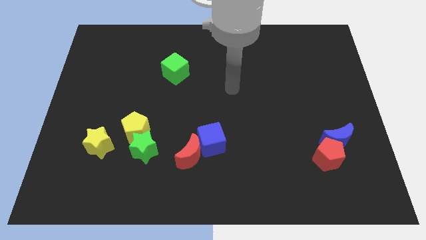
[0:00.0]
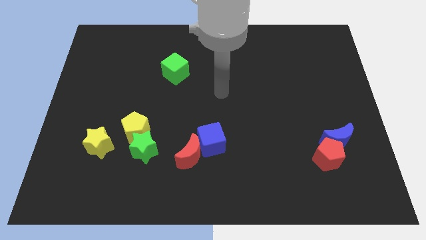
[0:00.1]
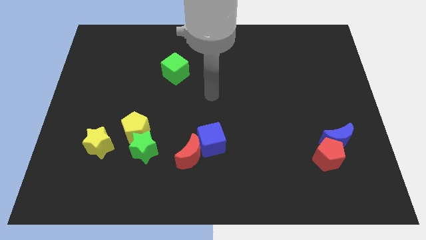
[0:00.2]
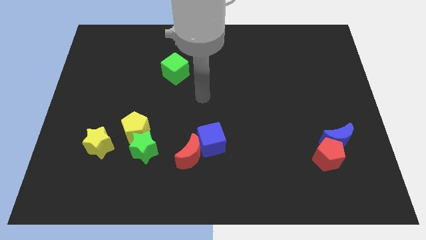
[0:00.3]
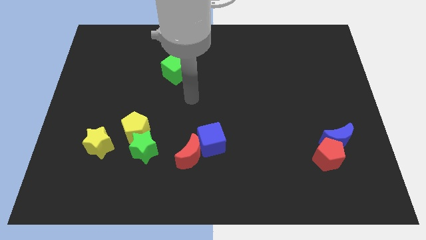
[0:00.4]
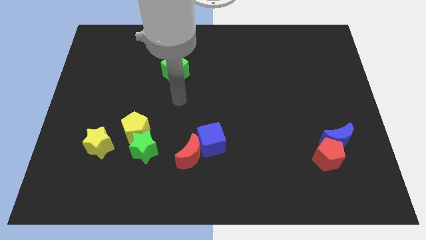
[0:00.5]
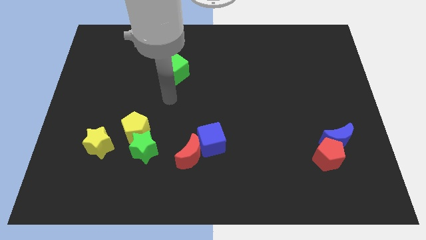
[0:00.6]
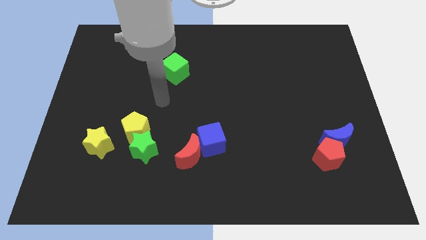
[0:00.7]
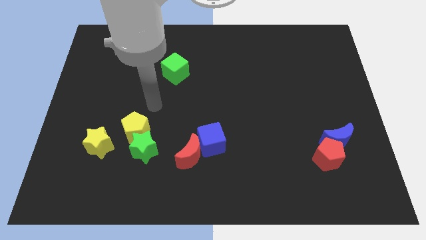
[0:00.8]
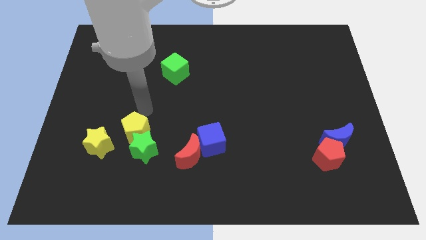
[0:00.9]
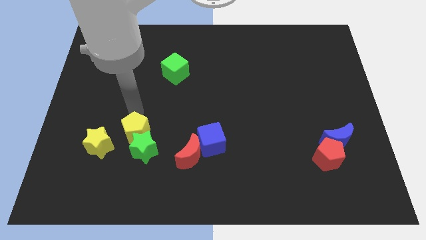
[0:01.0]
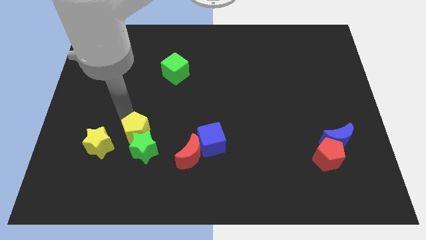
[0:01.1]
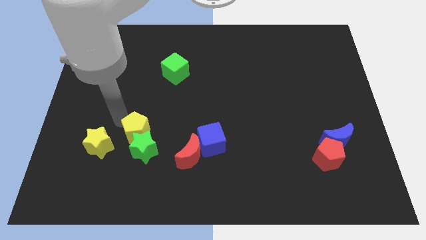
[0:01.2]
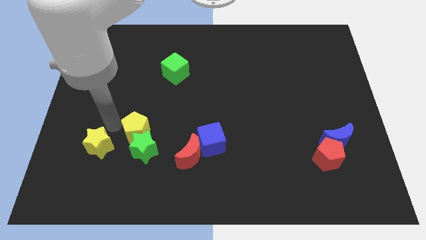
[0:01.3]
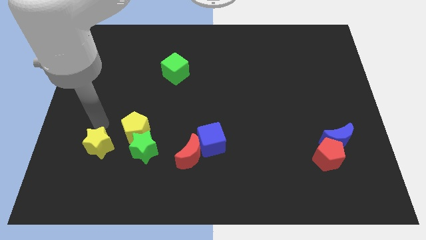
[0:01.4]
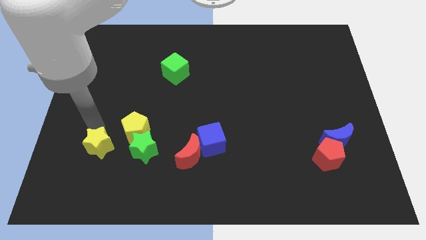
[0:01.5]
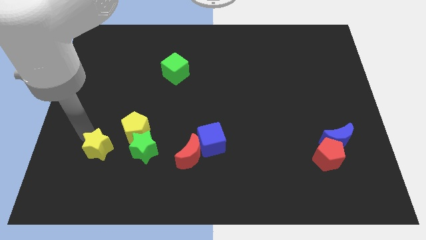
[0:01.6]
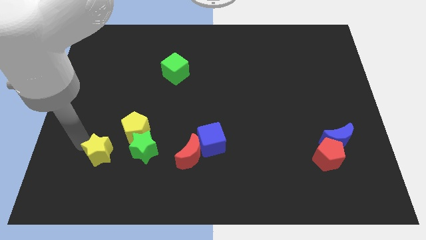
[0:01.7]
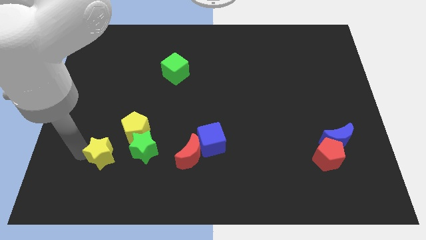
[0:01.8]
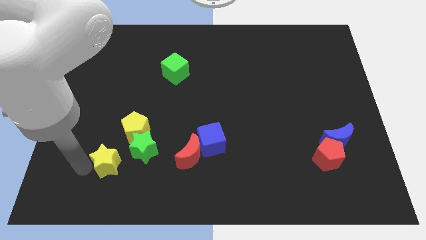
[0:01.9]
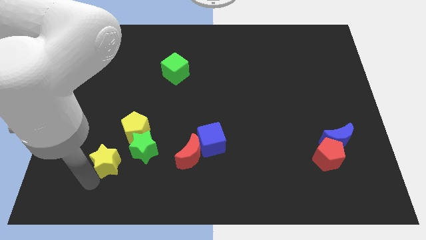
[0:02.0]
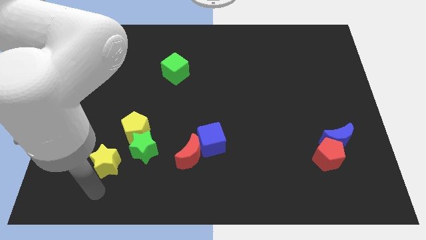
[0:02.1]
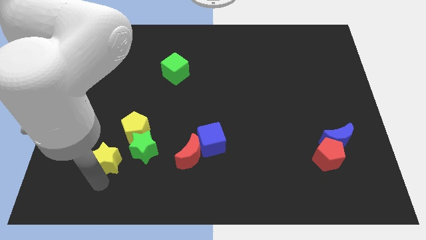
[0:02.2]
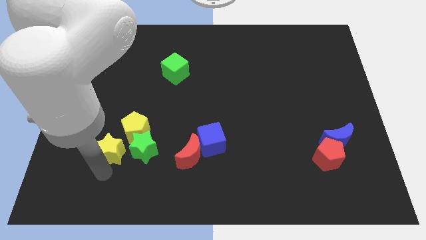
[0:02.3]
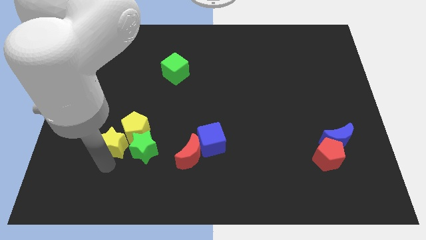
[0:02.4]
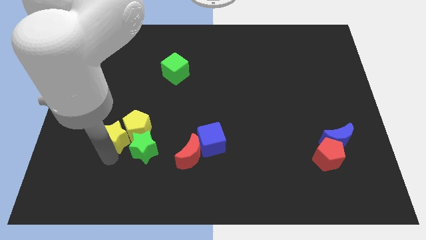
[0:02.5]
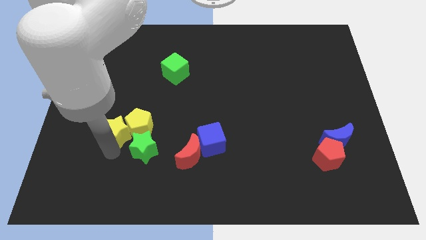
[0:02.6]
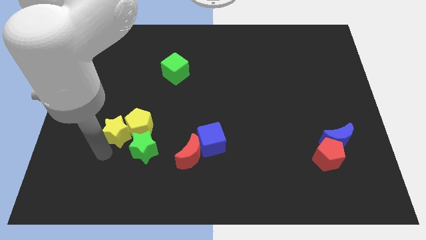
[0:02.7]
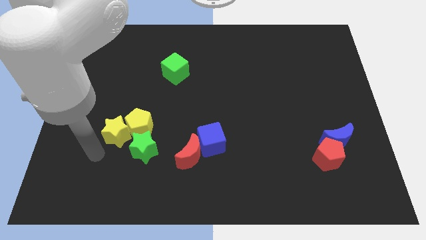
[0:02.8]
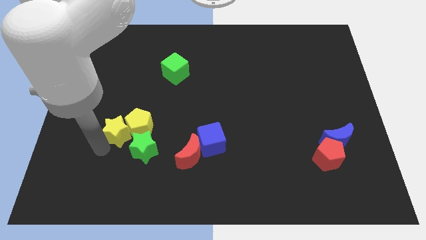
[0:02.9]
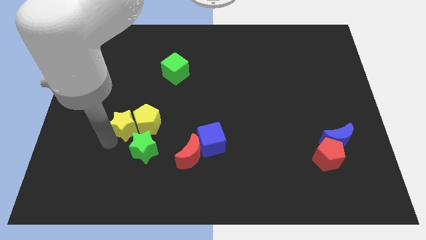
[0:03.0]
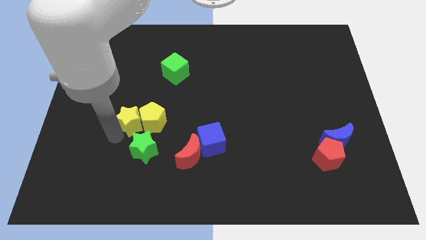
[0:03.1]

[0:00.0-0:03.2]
slightly push the yellow star diagonally up and right

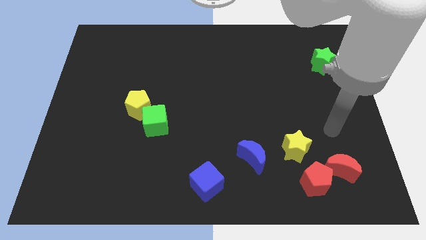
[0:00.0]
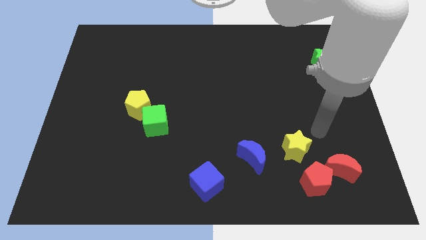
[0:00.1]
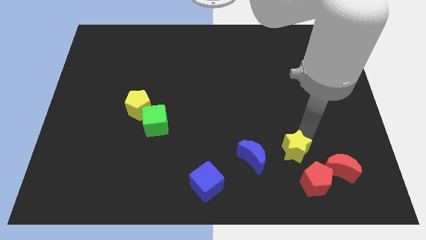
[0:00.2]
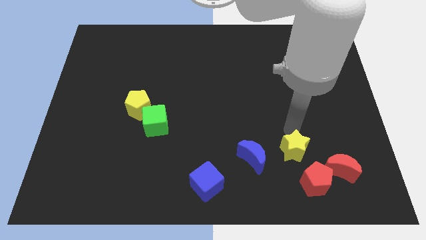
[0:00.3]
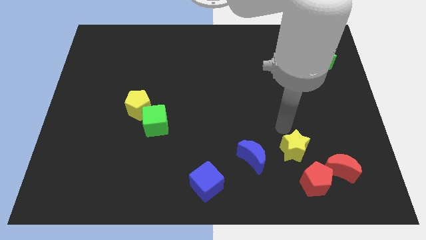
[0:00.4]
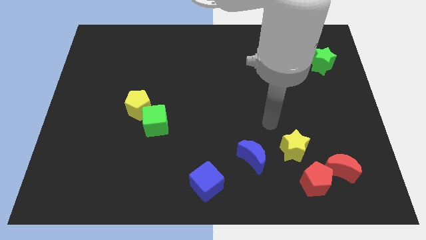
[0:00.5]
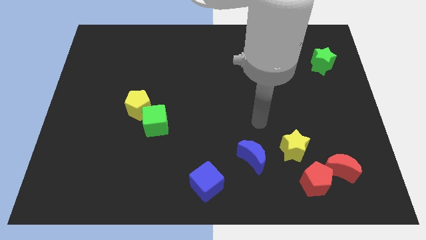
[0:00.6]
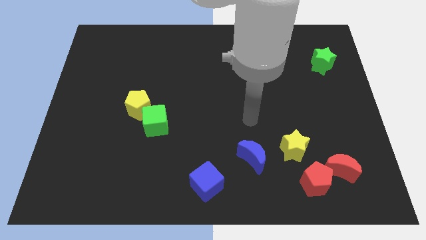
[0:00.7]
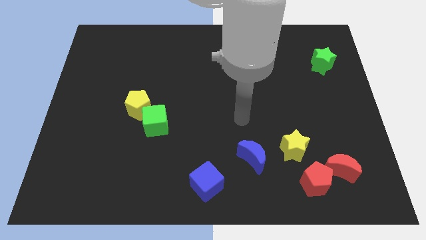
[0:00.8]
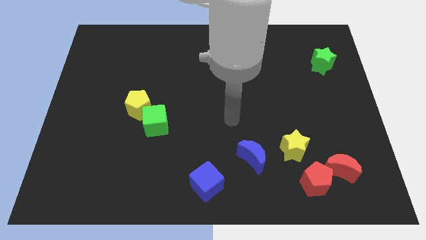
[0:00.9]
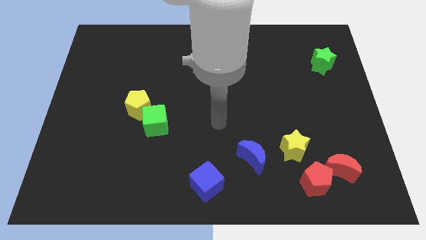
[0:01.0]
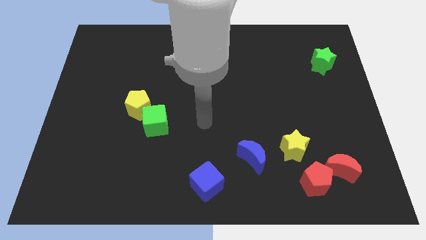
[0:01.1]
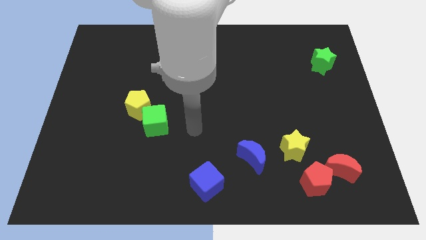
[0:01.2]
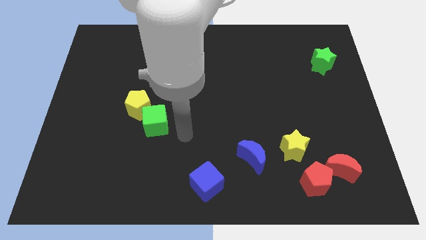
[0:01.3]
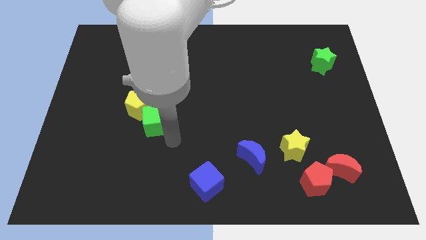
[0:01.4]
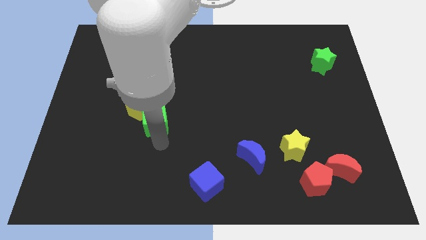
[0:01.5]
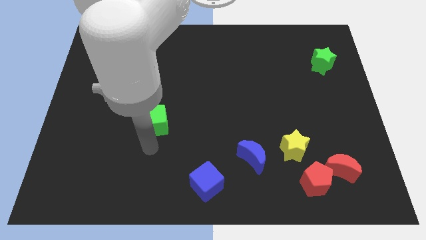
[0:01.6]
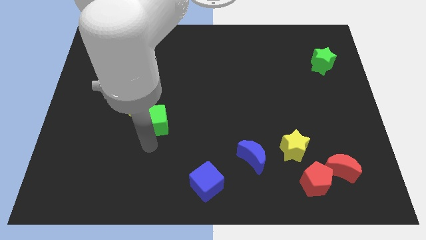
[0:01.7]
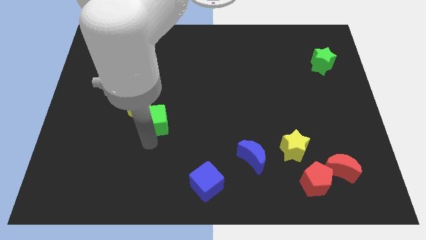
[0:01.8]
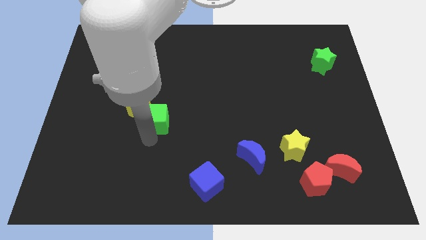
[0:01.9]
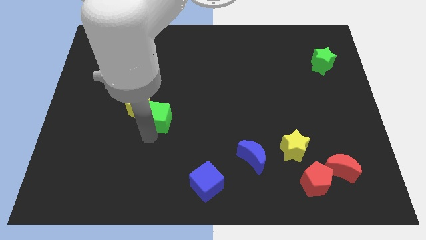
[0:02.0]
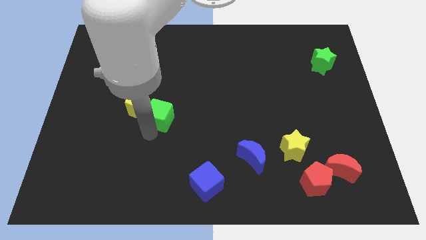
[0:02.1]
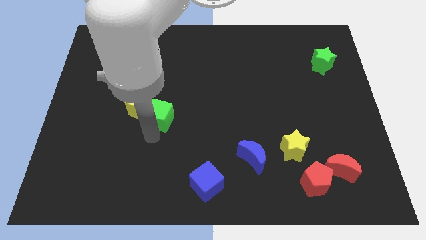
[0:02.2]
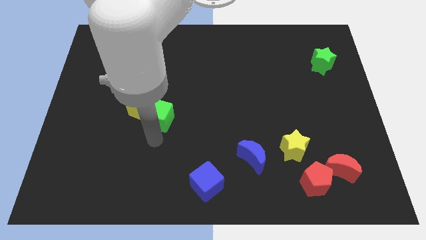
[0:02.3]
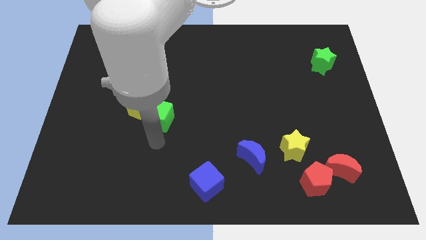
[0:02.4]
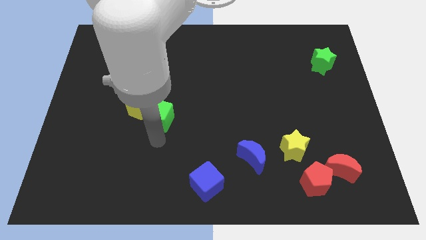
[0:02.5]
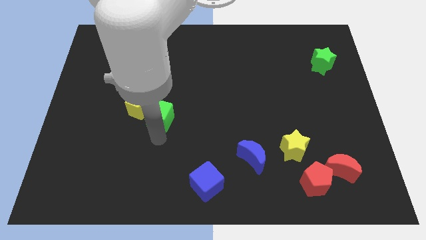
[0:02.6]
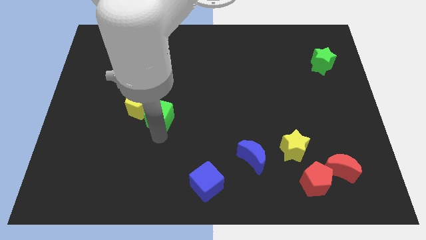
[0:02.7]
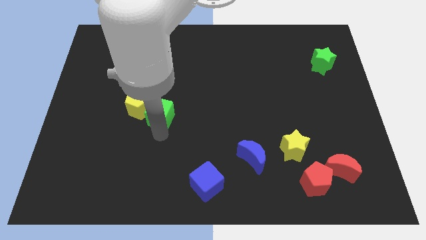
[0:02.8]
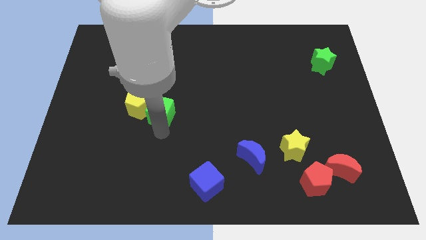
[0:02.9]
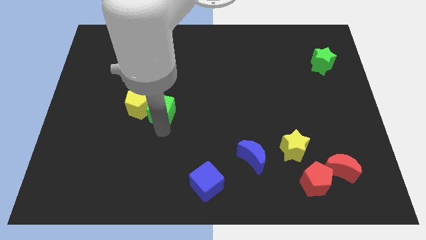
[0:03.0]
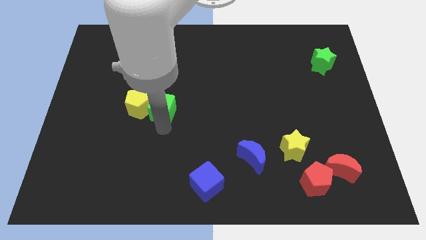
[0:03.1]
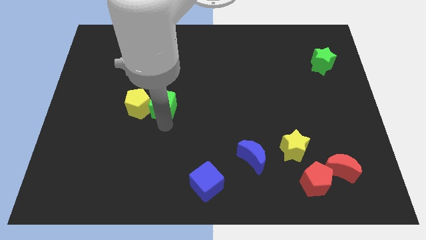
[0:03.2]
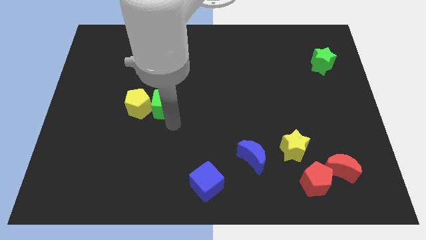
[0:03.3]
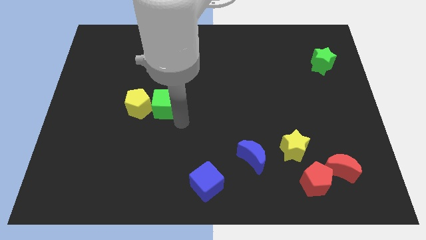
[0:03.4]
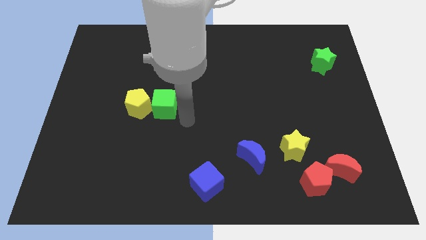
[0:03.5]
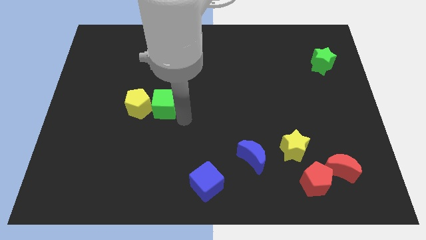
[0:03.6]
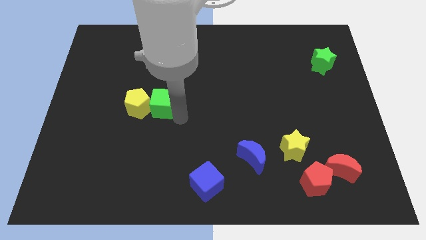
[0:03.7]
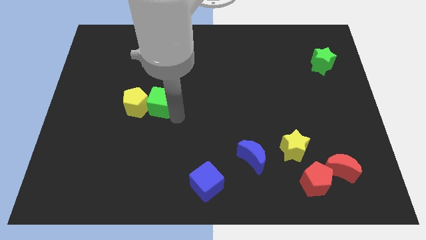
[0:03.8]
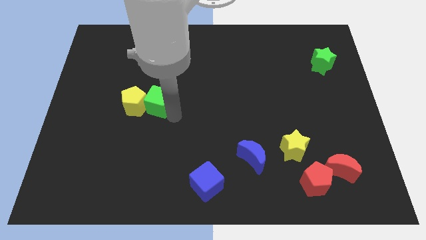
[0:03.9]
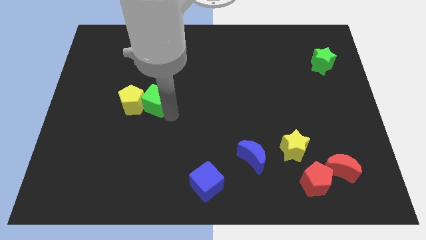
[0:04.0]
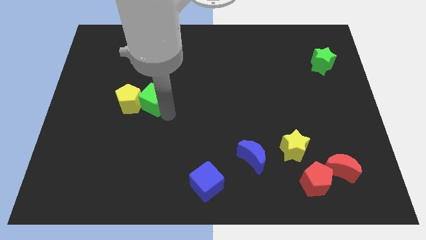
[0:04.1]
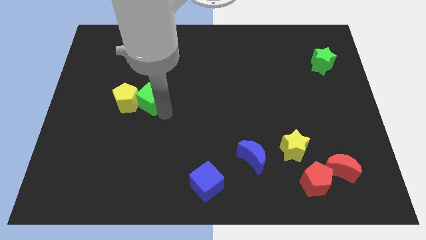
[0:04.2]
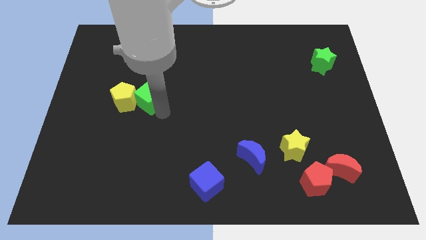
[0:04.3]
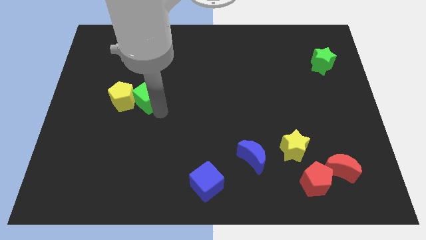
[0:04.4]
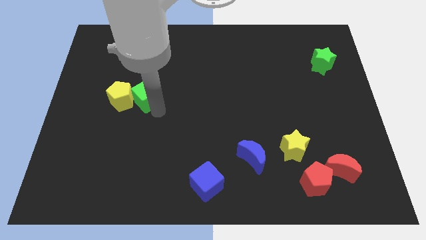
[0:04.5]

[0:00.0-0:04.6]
push the green cube somewhat up and left

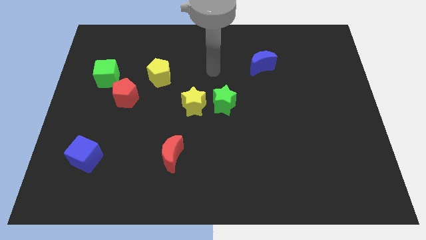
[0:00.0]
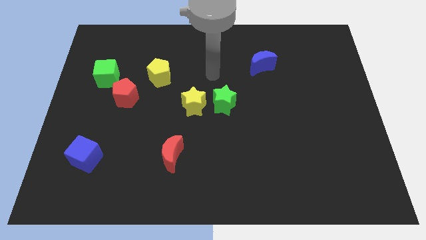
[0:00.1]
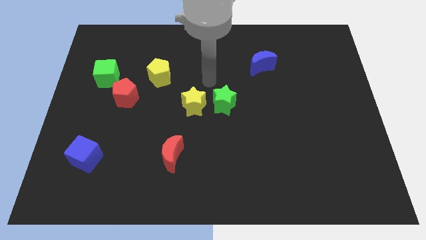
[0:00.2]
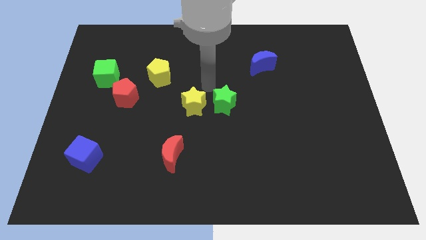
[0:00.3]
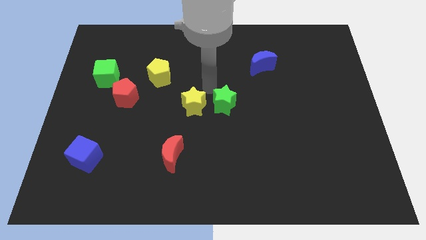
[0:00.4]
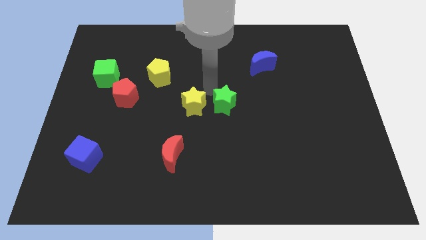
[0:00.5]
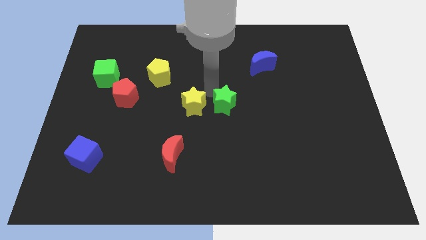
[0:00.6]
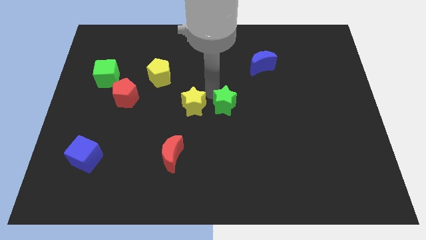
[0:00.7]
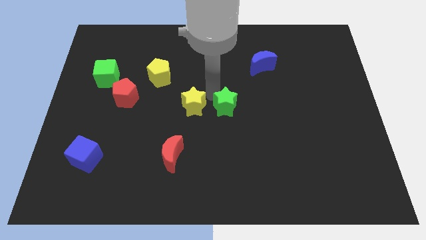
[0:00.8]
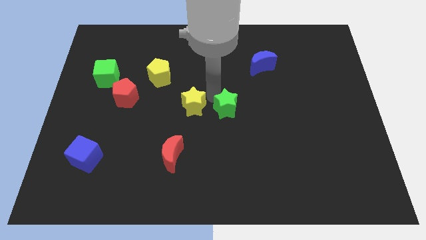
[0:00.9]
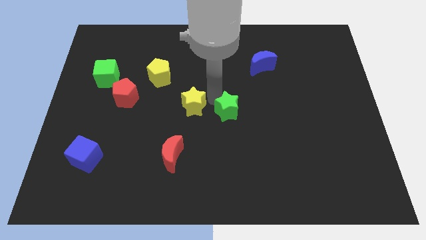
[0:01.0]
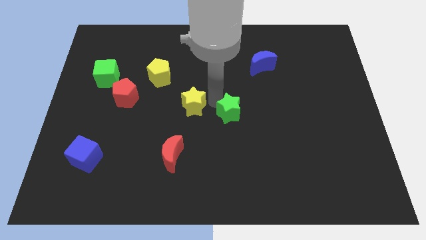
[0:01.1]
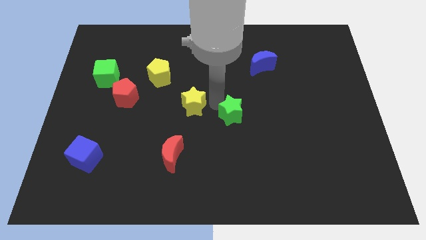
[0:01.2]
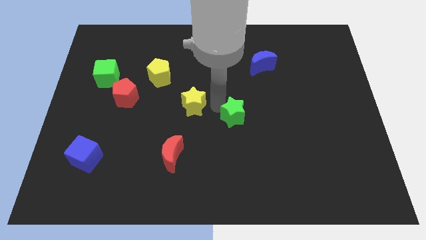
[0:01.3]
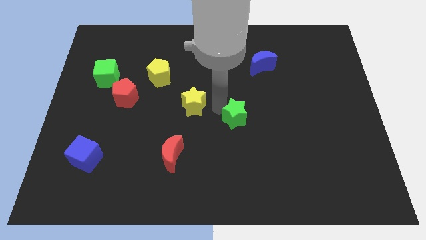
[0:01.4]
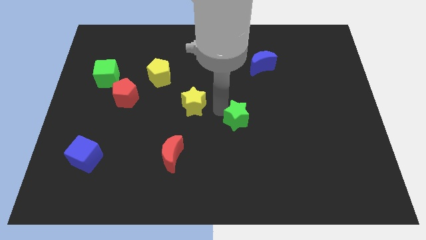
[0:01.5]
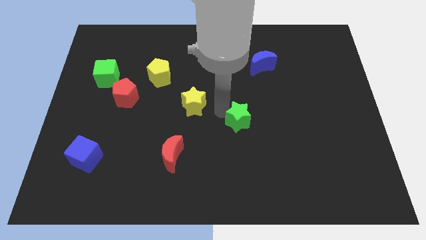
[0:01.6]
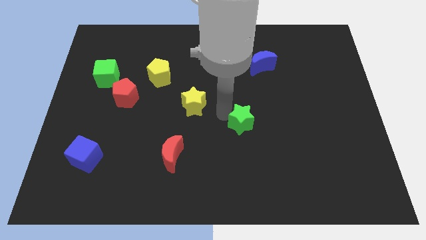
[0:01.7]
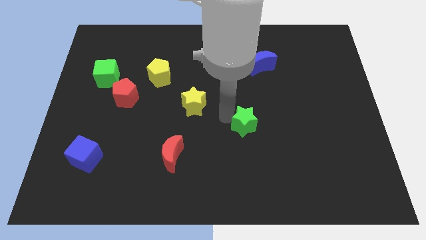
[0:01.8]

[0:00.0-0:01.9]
slide the green star a bit downwards and then right
